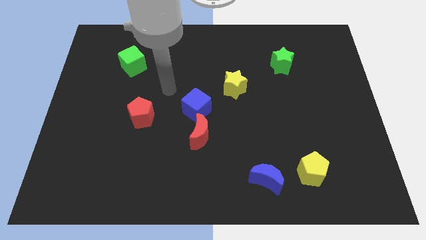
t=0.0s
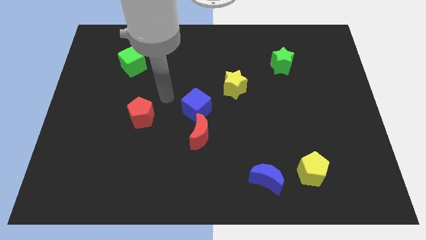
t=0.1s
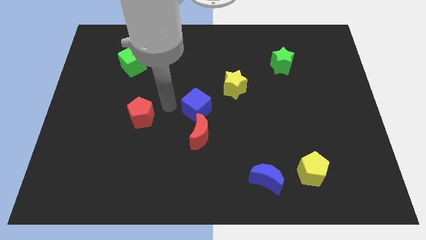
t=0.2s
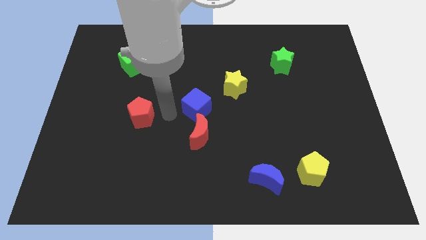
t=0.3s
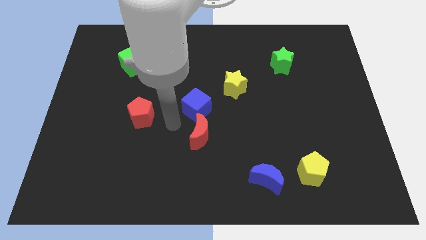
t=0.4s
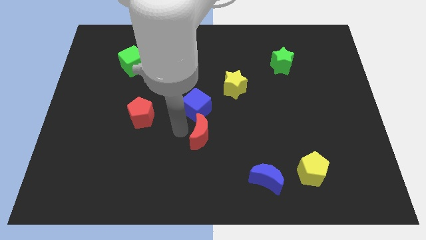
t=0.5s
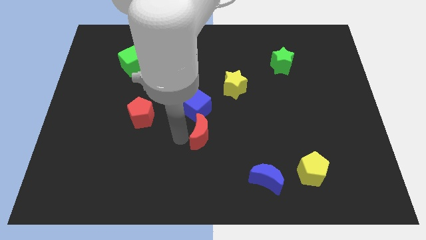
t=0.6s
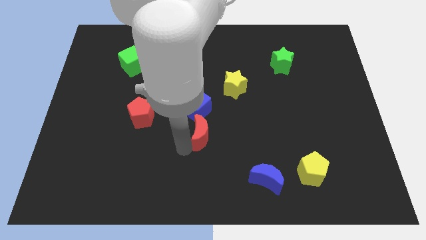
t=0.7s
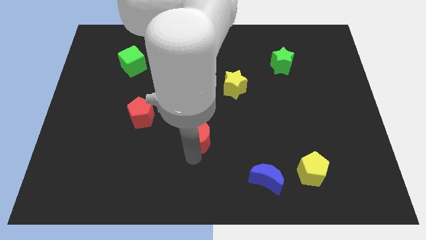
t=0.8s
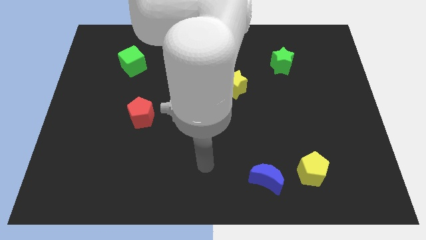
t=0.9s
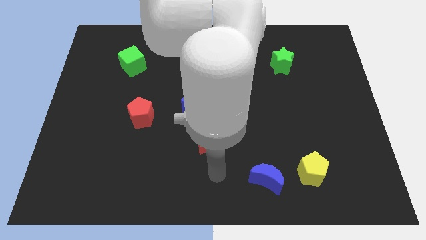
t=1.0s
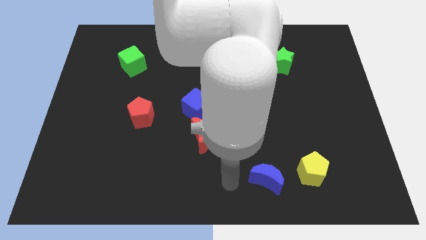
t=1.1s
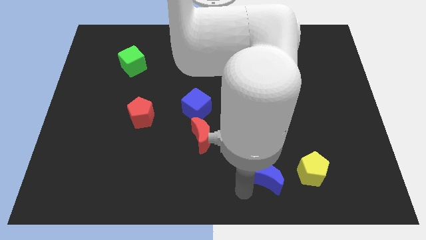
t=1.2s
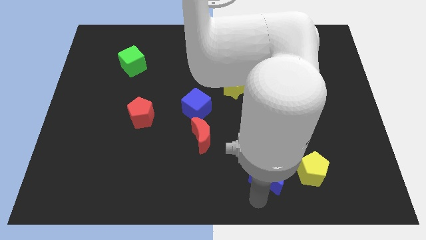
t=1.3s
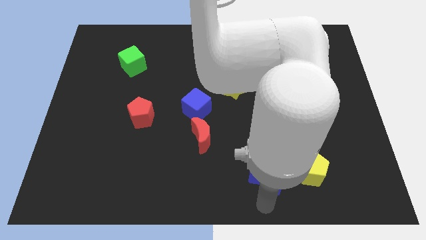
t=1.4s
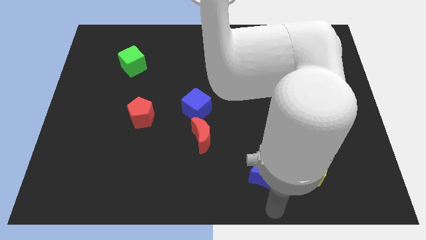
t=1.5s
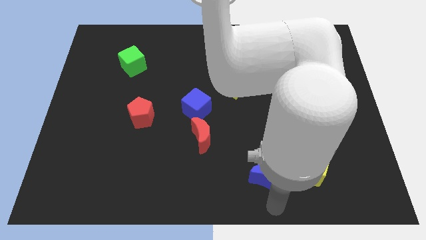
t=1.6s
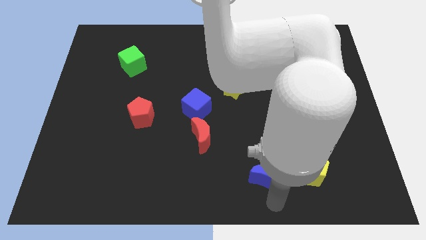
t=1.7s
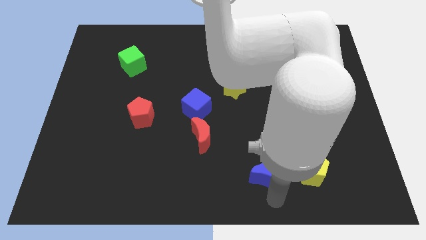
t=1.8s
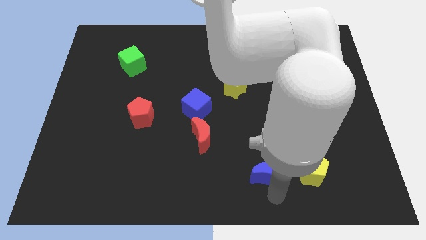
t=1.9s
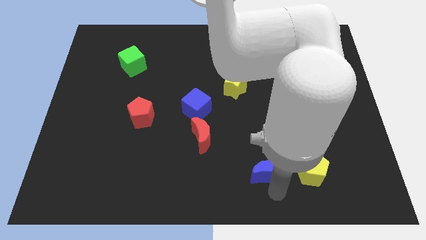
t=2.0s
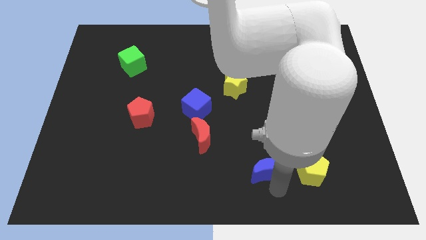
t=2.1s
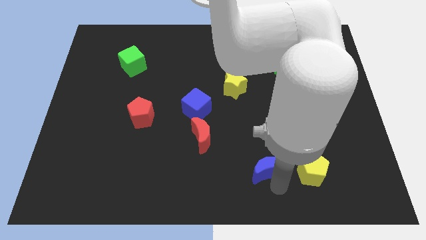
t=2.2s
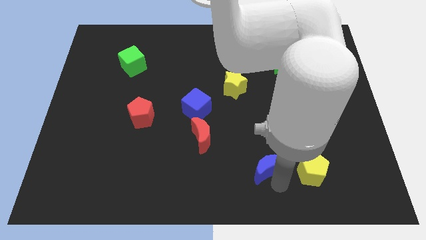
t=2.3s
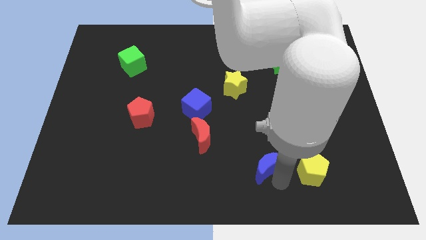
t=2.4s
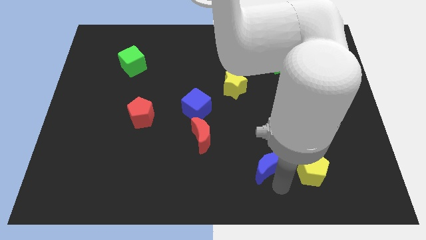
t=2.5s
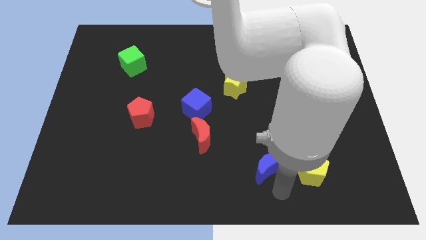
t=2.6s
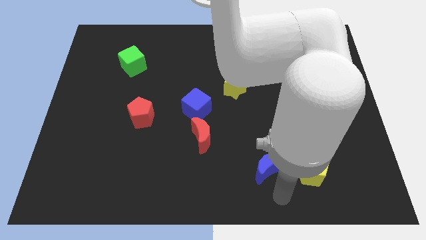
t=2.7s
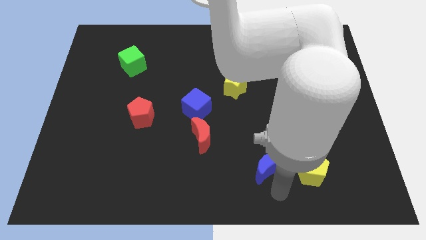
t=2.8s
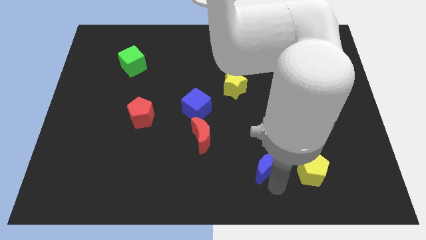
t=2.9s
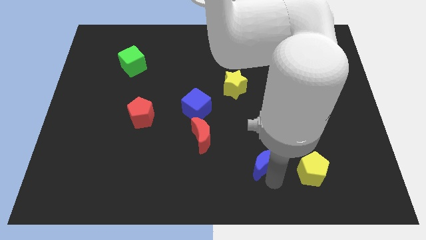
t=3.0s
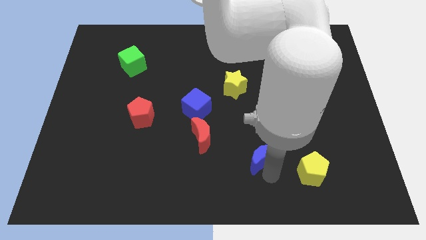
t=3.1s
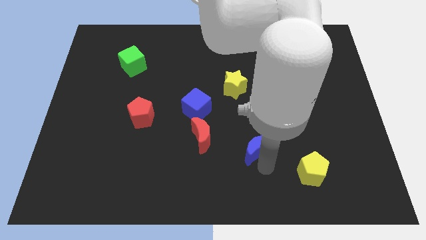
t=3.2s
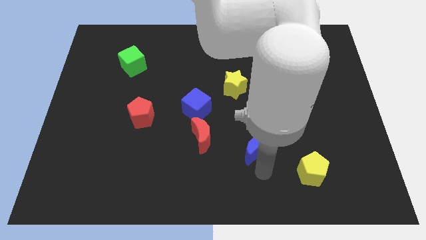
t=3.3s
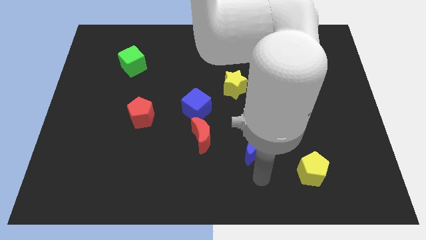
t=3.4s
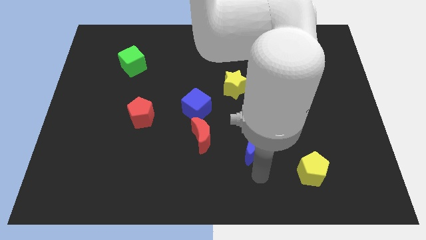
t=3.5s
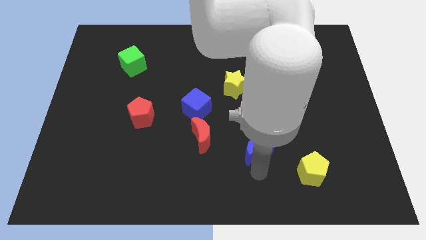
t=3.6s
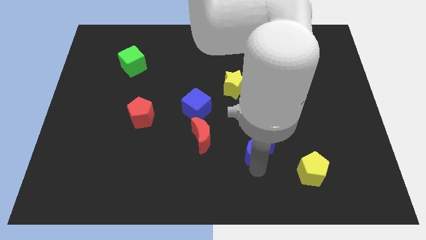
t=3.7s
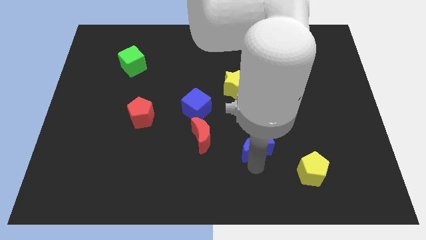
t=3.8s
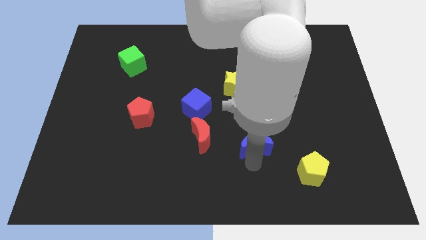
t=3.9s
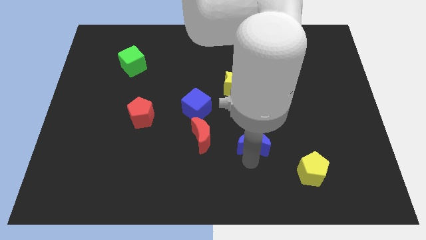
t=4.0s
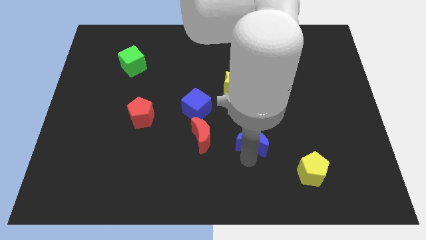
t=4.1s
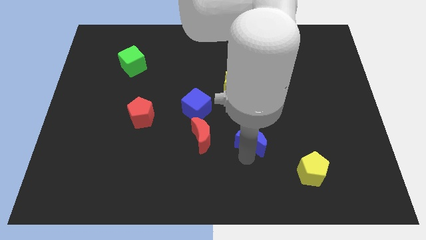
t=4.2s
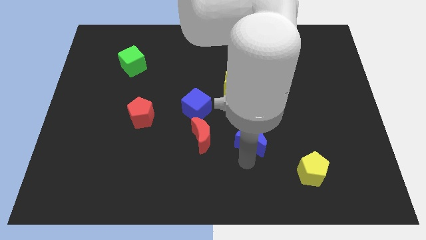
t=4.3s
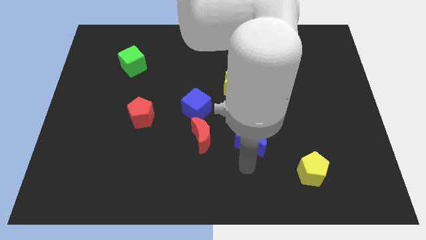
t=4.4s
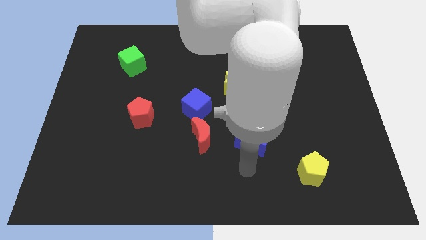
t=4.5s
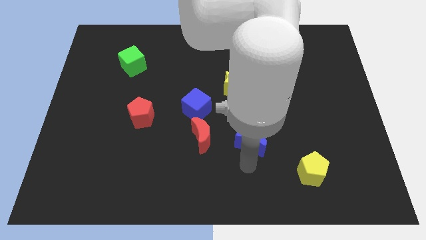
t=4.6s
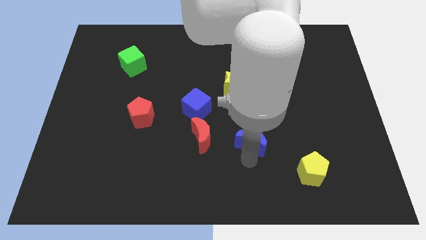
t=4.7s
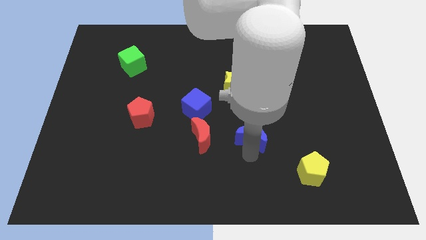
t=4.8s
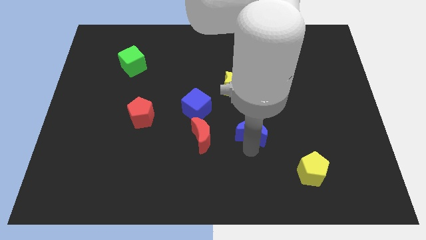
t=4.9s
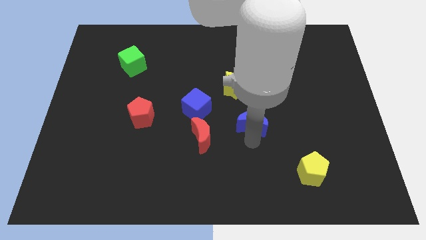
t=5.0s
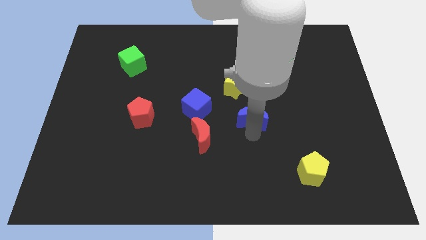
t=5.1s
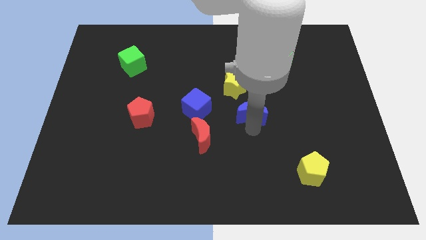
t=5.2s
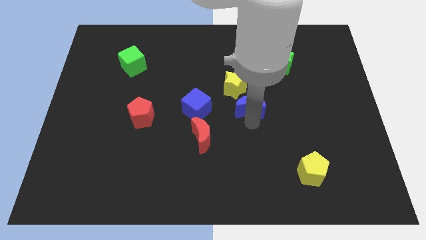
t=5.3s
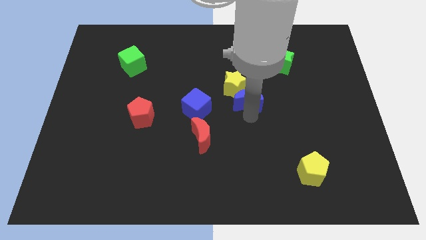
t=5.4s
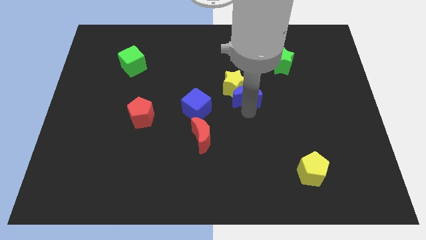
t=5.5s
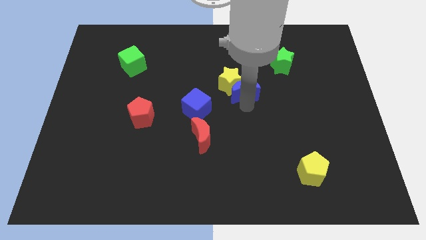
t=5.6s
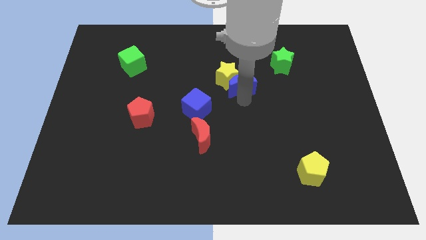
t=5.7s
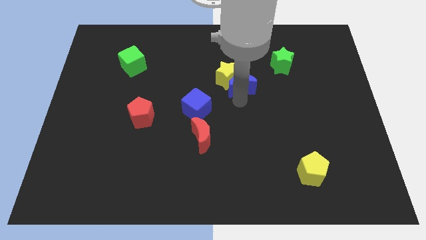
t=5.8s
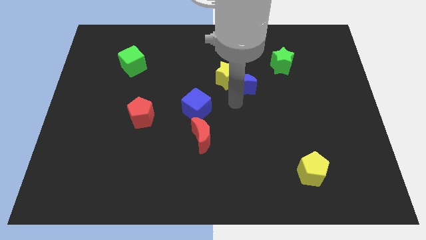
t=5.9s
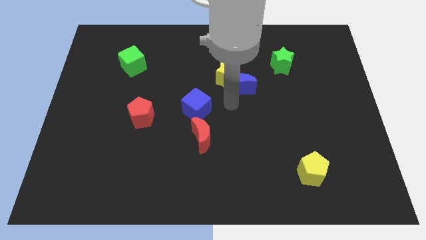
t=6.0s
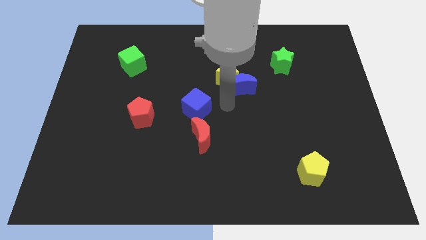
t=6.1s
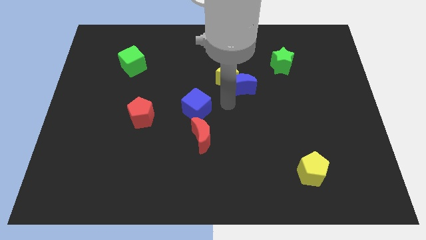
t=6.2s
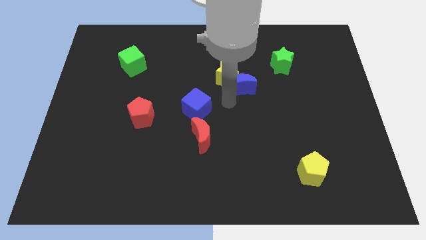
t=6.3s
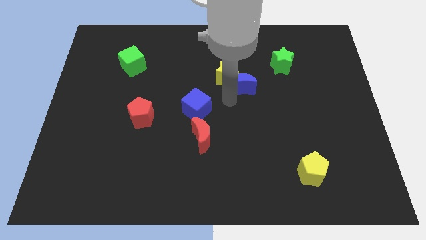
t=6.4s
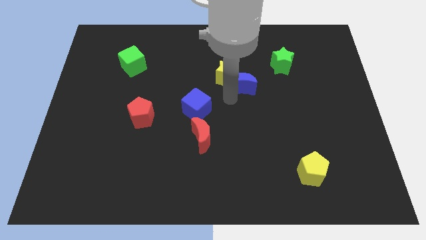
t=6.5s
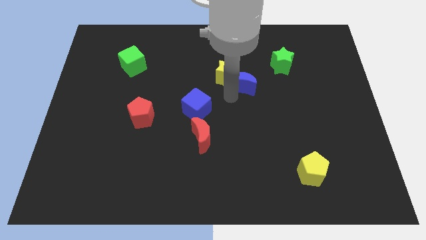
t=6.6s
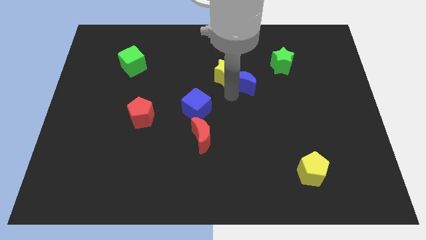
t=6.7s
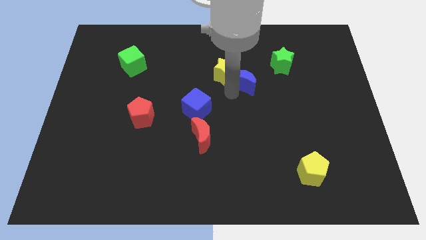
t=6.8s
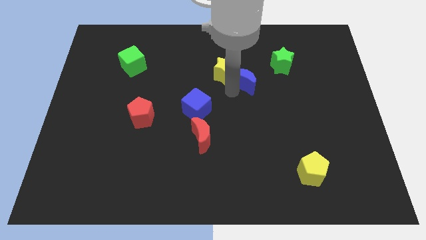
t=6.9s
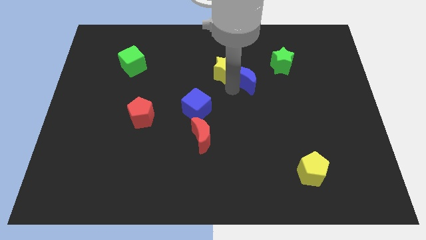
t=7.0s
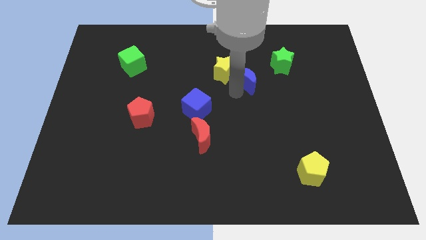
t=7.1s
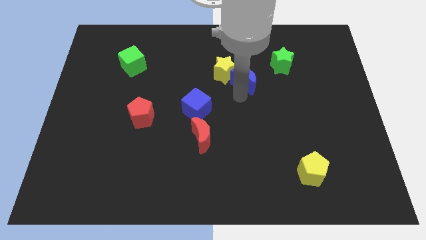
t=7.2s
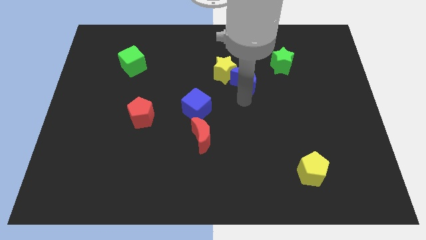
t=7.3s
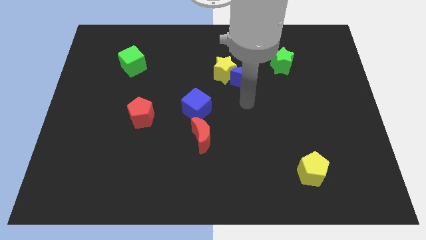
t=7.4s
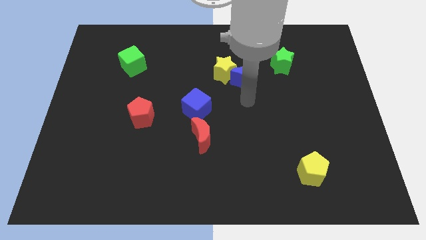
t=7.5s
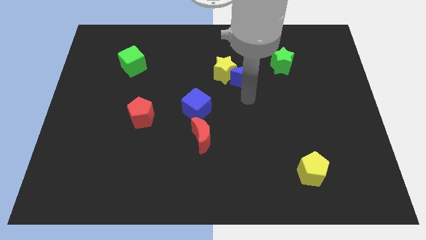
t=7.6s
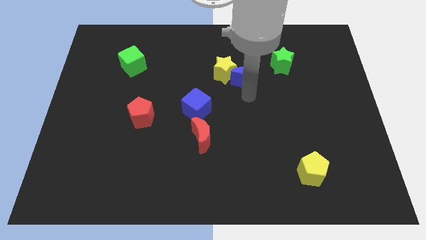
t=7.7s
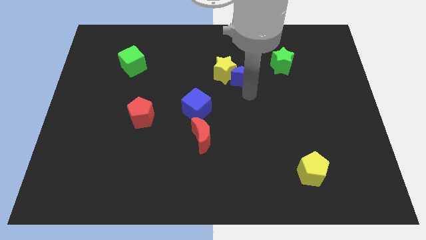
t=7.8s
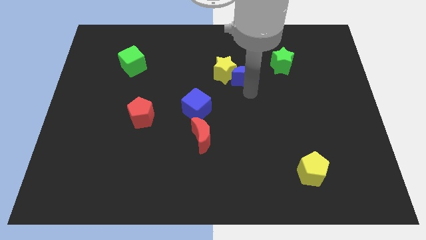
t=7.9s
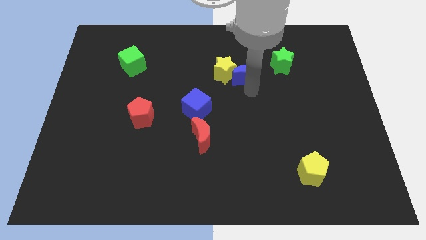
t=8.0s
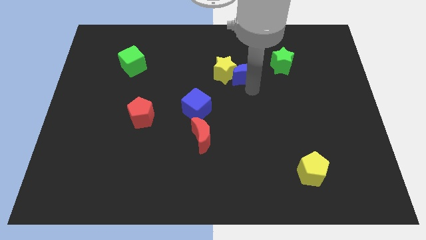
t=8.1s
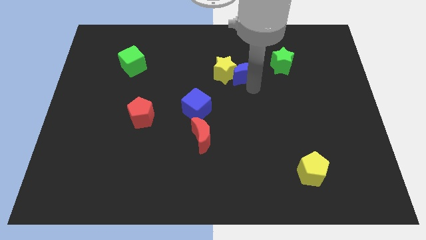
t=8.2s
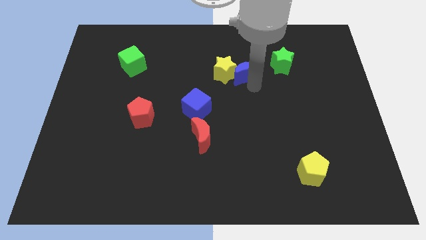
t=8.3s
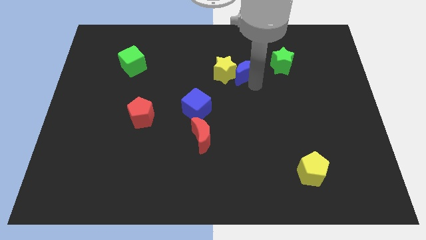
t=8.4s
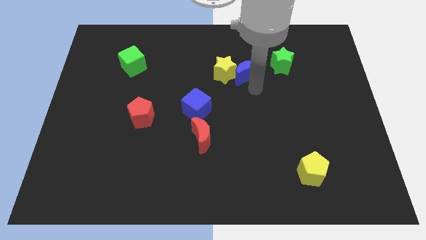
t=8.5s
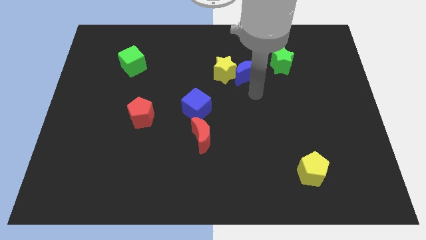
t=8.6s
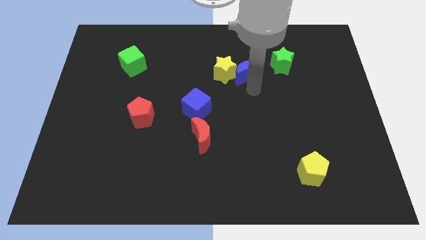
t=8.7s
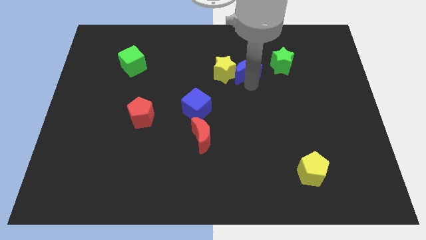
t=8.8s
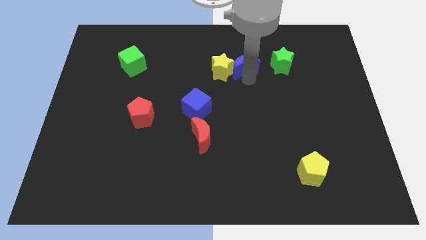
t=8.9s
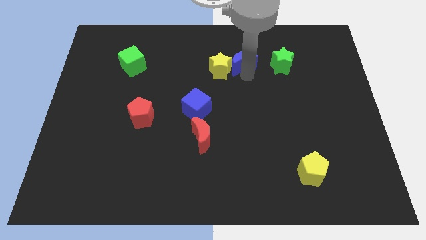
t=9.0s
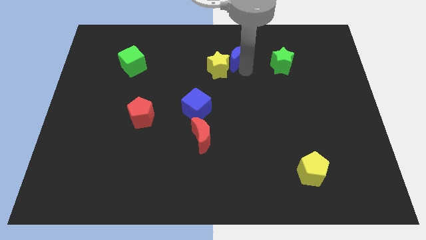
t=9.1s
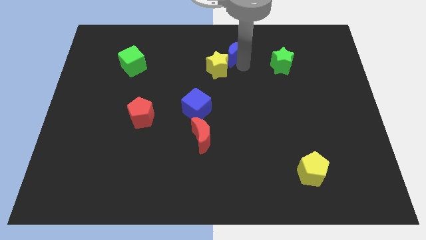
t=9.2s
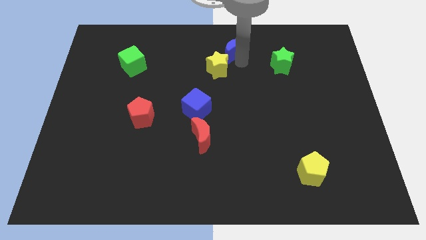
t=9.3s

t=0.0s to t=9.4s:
put the blue moon to the towards your base
